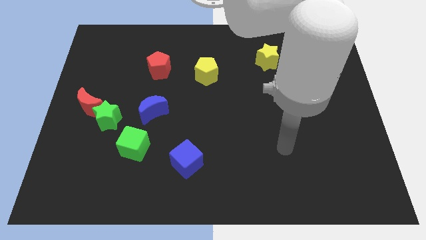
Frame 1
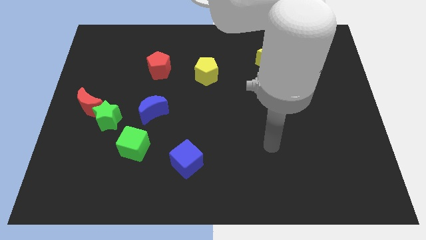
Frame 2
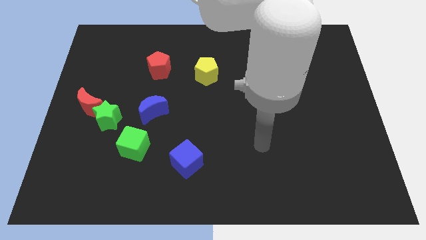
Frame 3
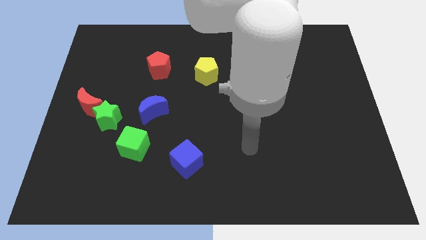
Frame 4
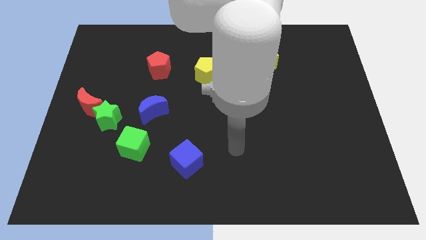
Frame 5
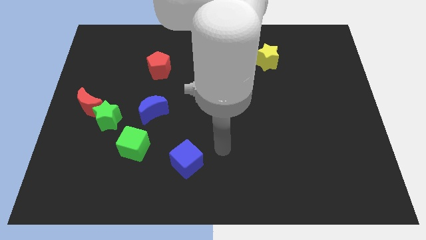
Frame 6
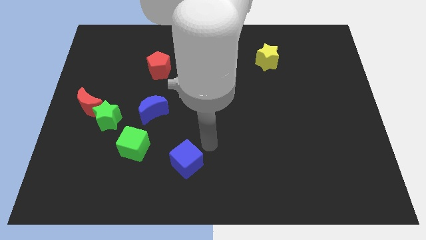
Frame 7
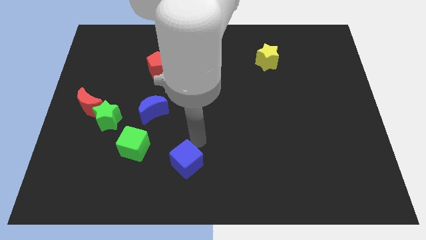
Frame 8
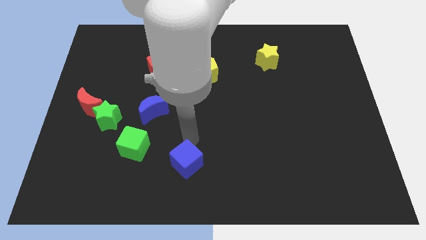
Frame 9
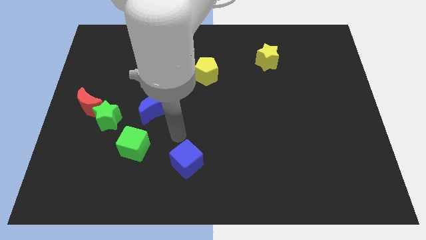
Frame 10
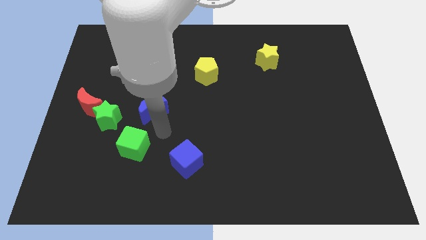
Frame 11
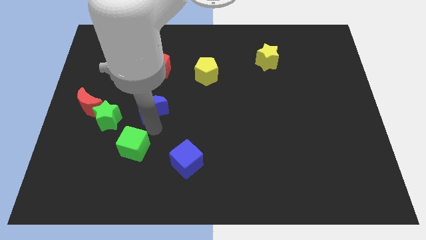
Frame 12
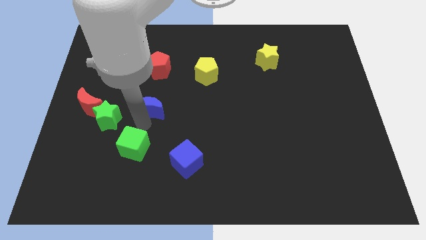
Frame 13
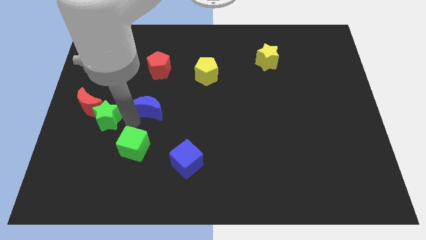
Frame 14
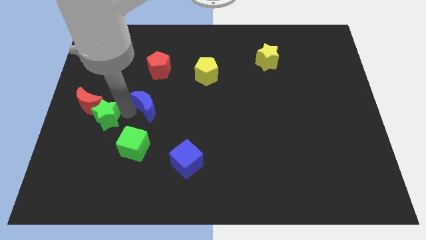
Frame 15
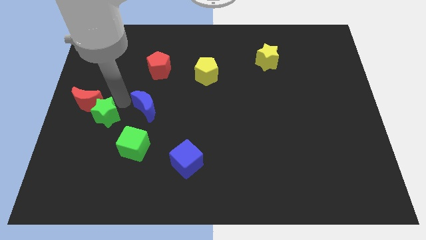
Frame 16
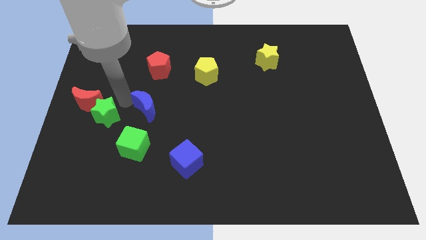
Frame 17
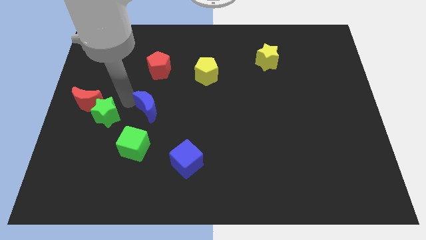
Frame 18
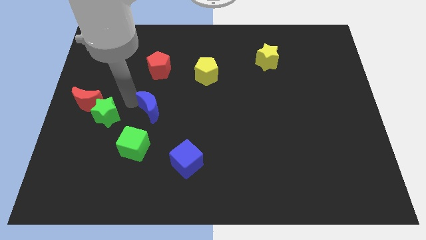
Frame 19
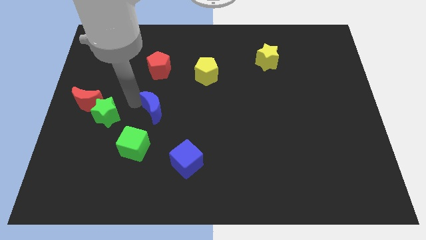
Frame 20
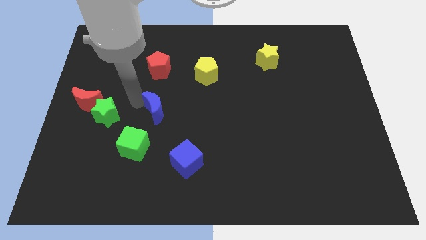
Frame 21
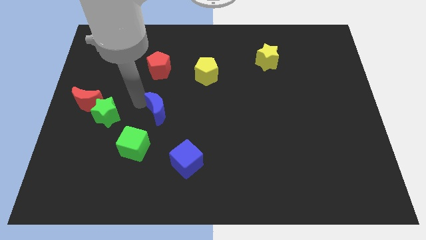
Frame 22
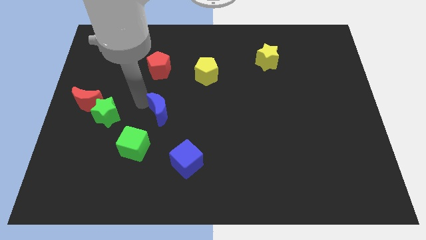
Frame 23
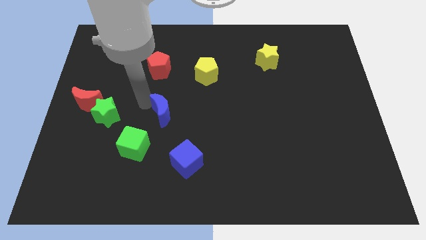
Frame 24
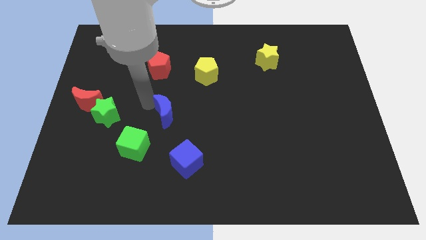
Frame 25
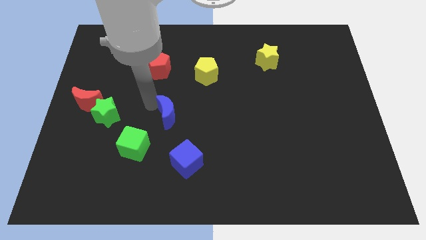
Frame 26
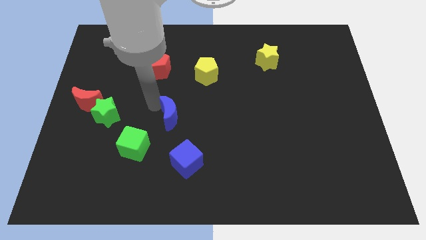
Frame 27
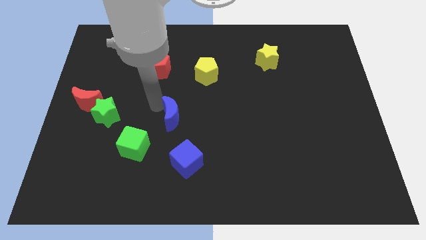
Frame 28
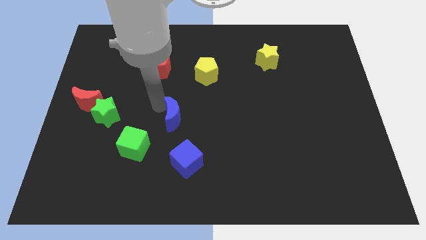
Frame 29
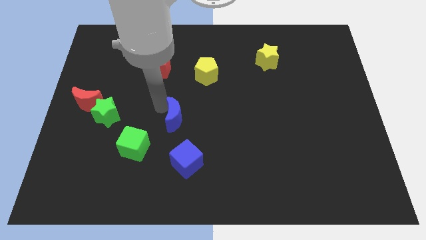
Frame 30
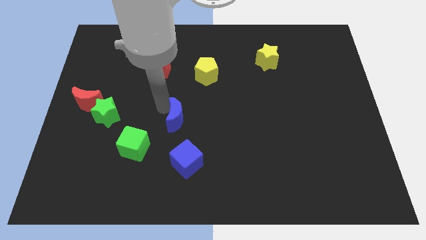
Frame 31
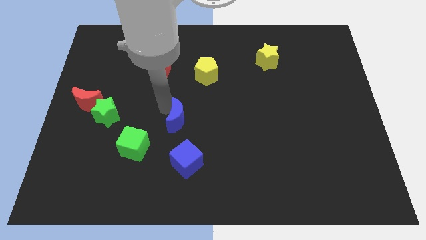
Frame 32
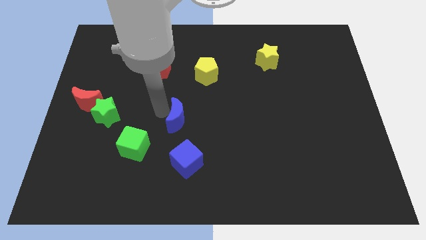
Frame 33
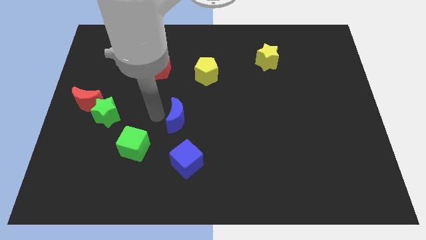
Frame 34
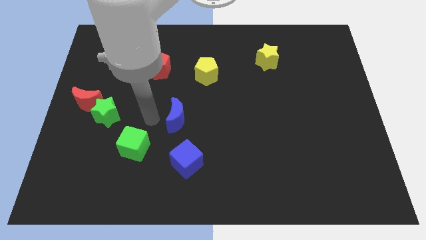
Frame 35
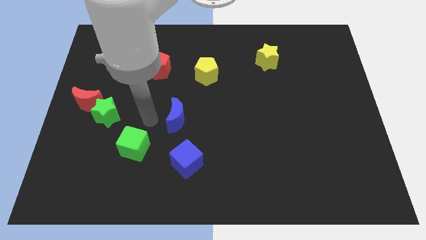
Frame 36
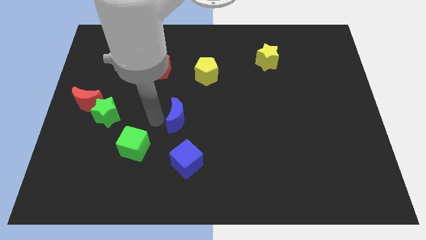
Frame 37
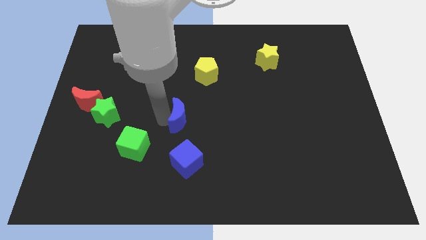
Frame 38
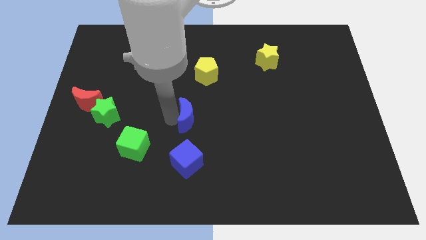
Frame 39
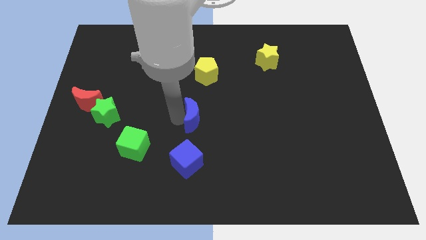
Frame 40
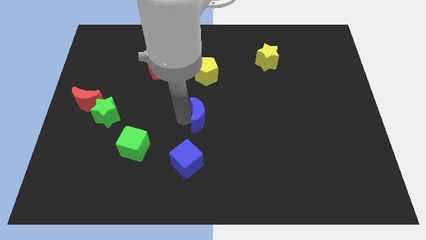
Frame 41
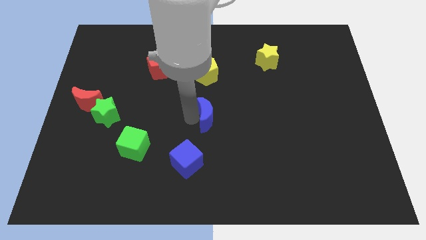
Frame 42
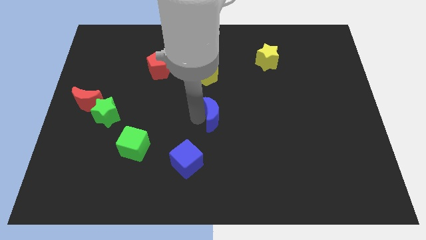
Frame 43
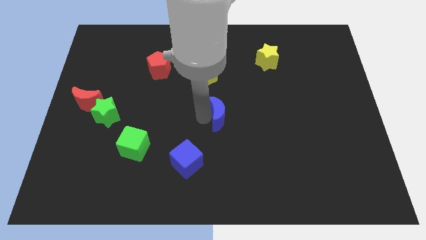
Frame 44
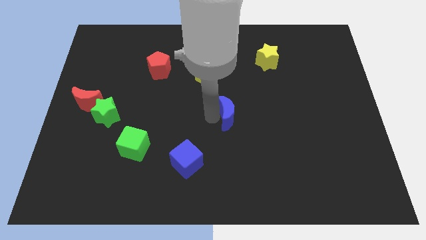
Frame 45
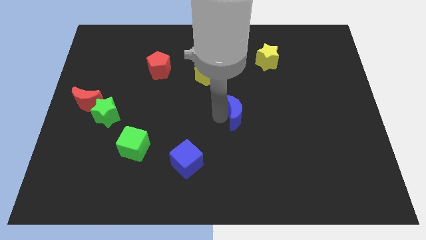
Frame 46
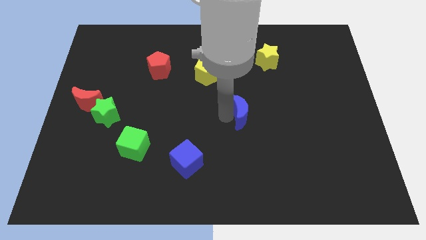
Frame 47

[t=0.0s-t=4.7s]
move the blue moon right

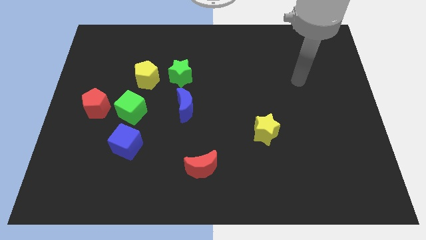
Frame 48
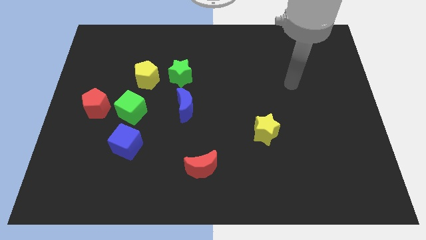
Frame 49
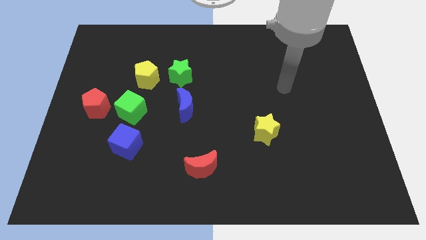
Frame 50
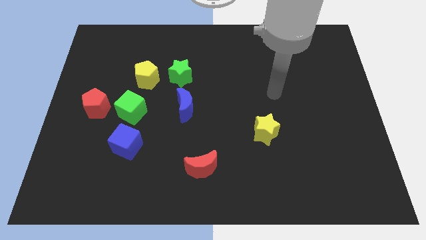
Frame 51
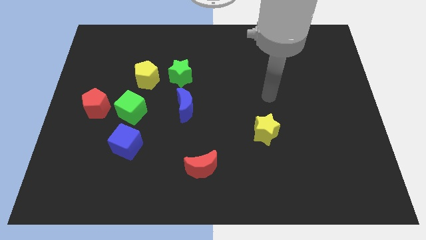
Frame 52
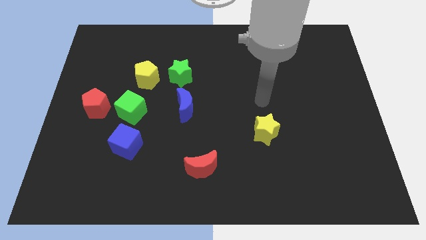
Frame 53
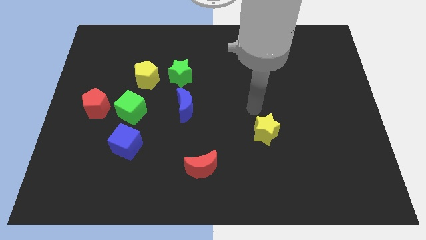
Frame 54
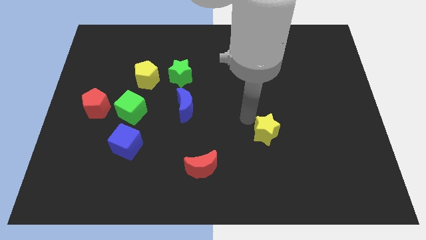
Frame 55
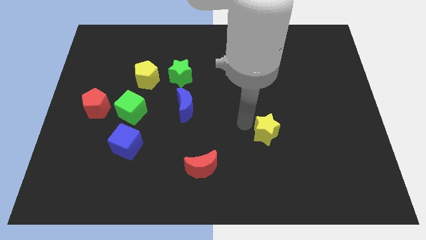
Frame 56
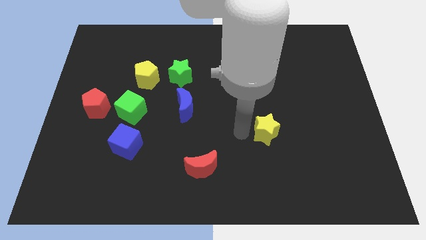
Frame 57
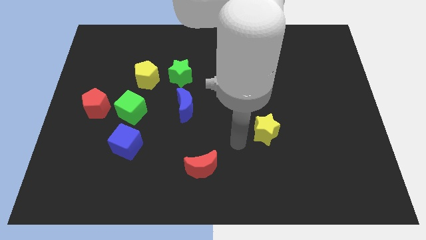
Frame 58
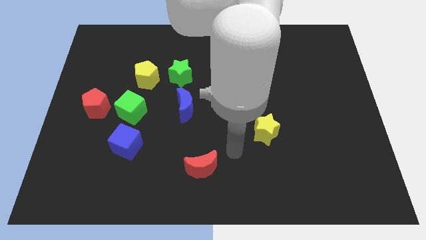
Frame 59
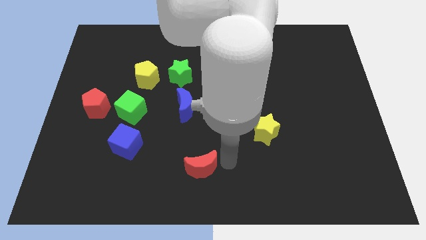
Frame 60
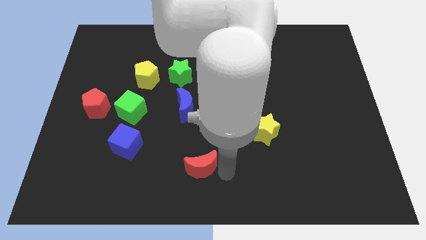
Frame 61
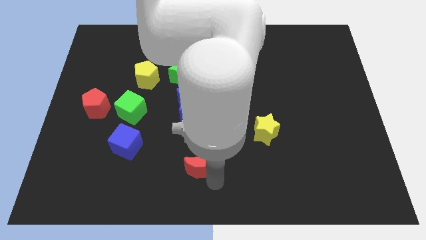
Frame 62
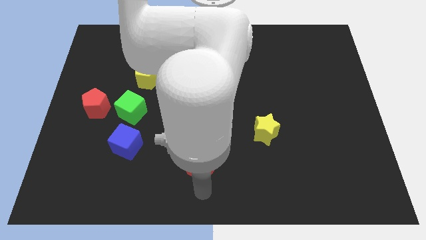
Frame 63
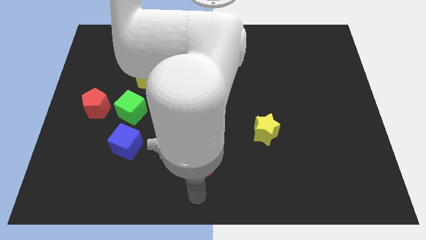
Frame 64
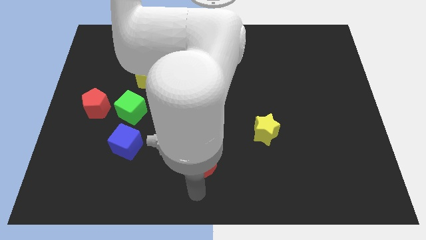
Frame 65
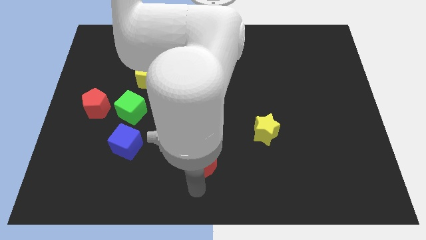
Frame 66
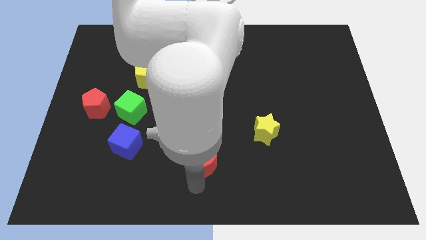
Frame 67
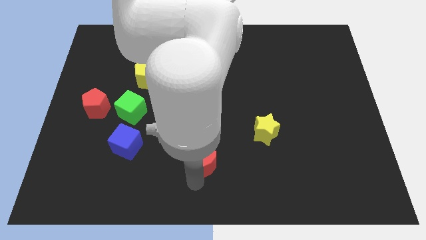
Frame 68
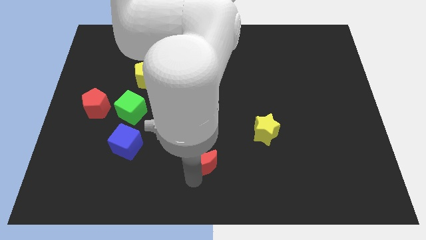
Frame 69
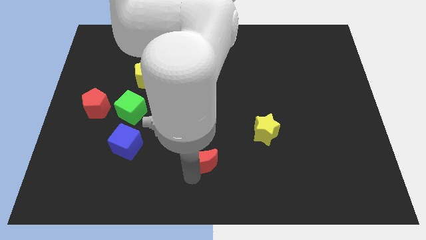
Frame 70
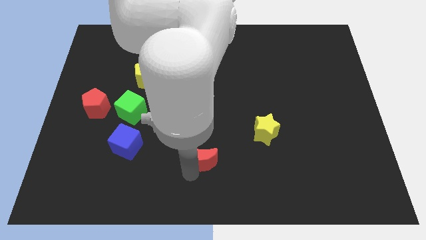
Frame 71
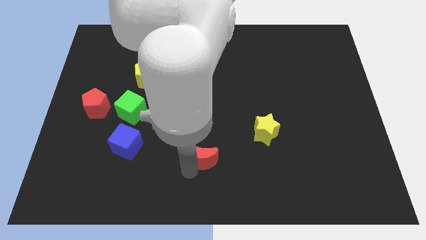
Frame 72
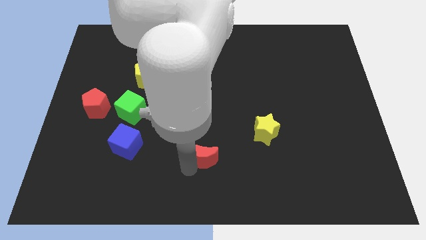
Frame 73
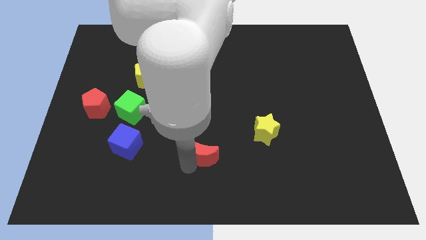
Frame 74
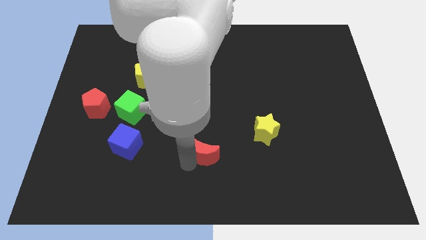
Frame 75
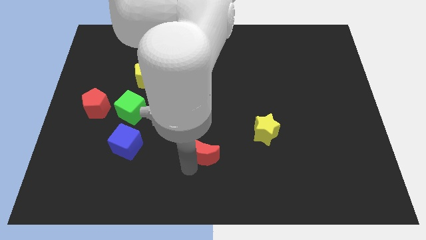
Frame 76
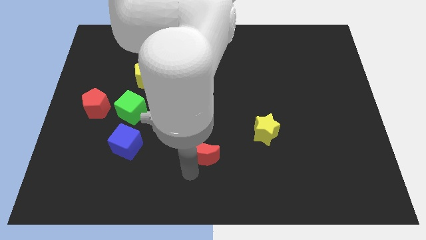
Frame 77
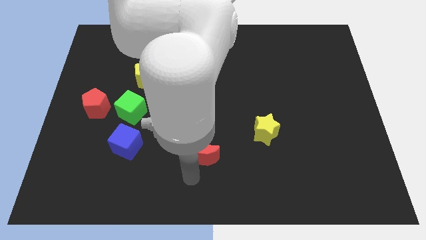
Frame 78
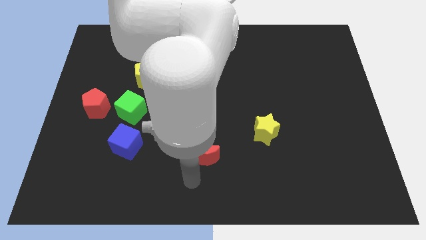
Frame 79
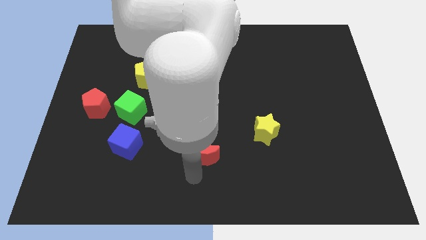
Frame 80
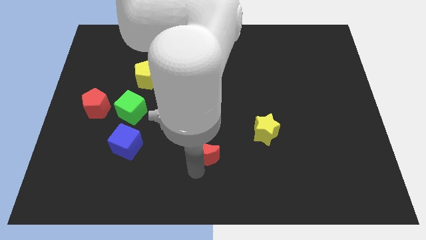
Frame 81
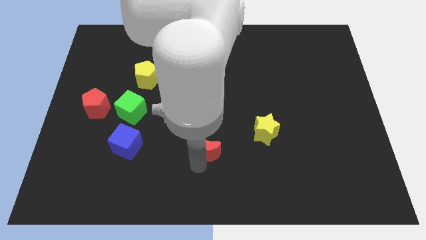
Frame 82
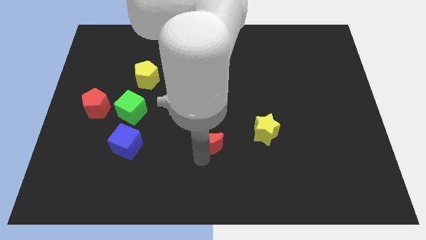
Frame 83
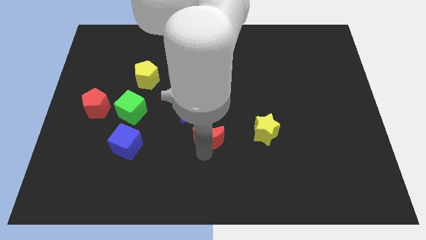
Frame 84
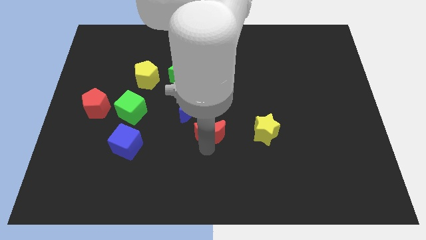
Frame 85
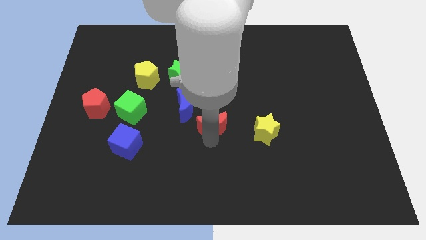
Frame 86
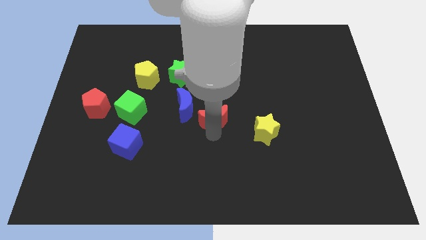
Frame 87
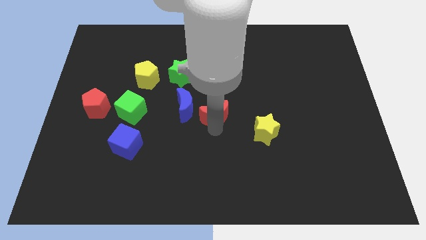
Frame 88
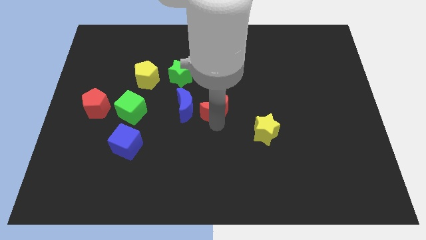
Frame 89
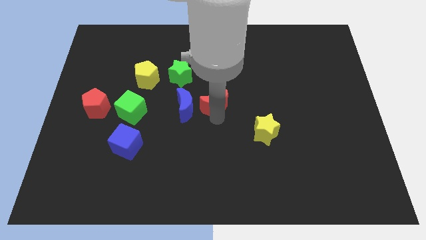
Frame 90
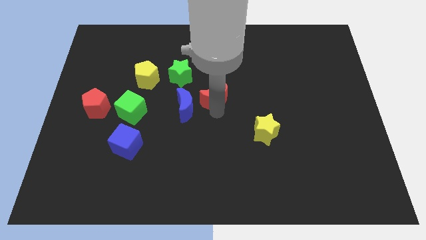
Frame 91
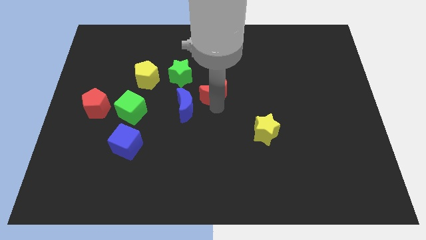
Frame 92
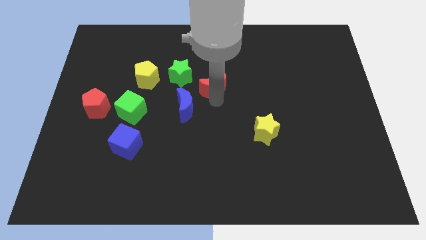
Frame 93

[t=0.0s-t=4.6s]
slide the red moon up
